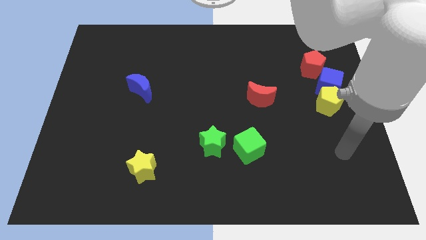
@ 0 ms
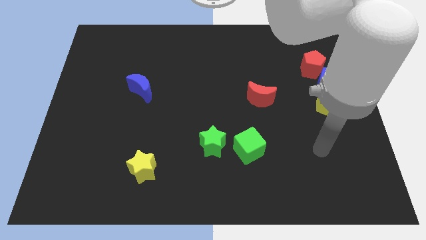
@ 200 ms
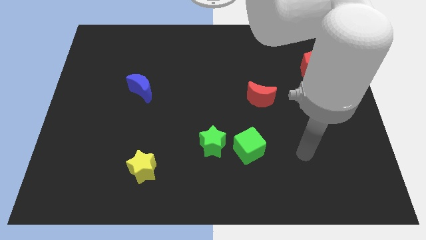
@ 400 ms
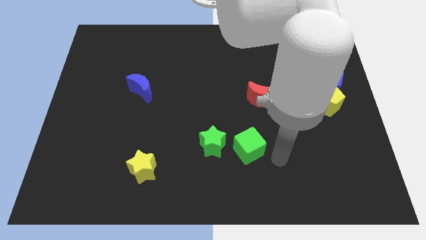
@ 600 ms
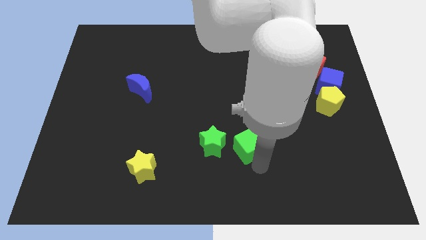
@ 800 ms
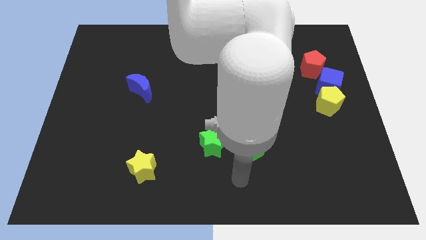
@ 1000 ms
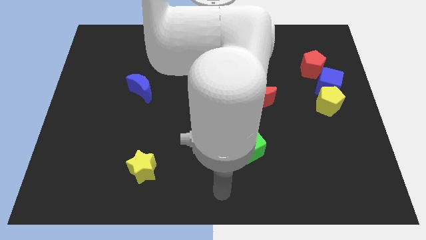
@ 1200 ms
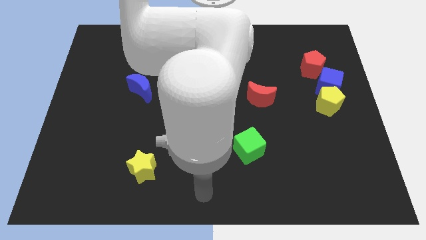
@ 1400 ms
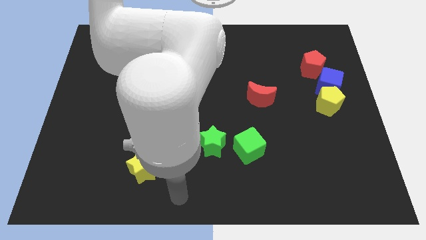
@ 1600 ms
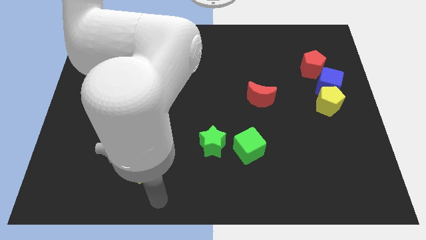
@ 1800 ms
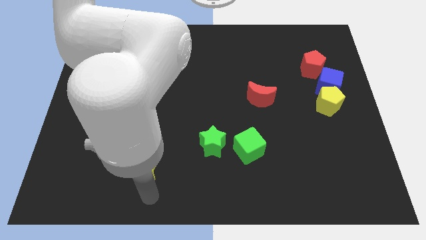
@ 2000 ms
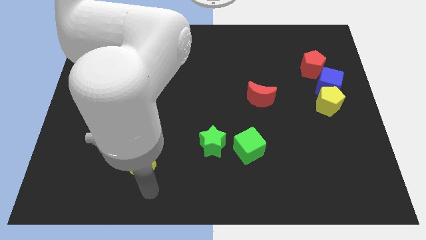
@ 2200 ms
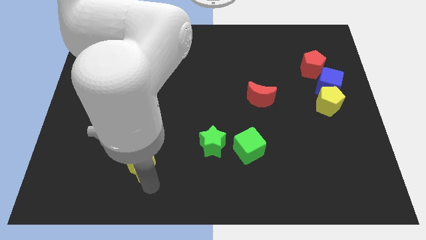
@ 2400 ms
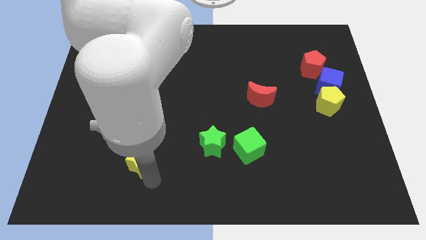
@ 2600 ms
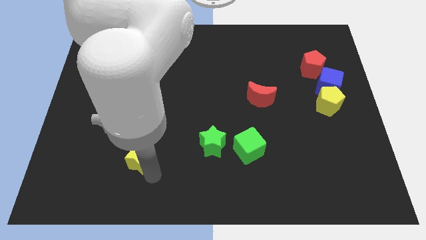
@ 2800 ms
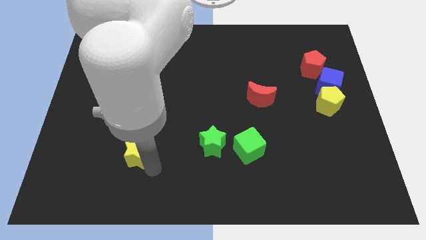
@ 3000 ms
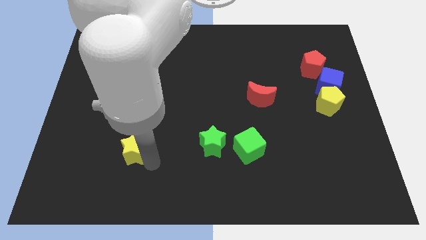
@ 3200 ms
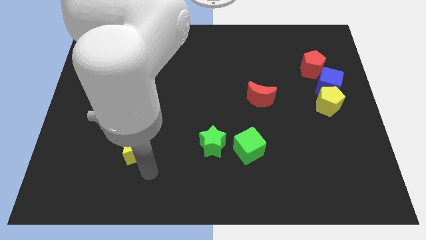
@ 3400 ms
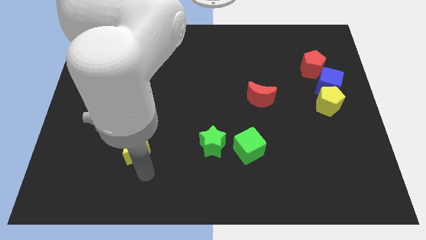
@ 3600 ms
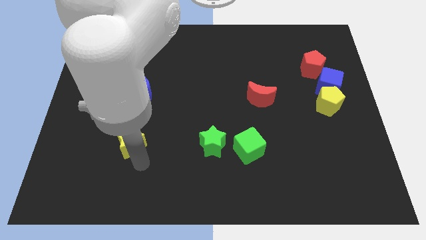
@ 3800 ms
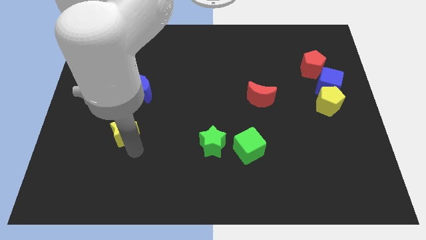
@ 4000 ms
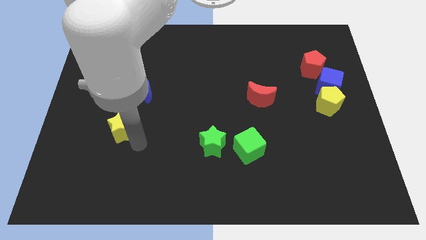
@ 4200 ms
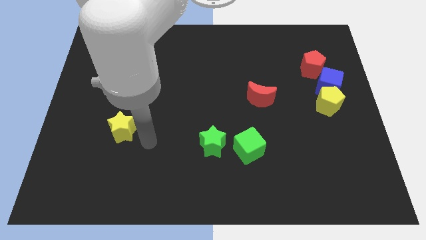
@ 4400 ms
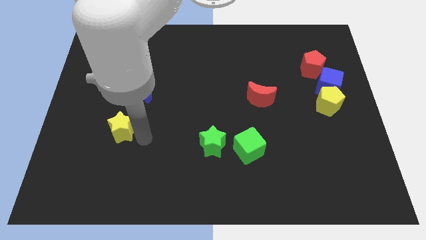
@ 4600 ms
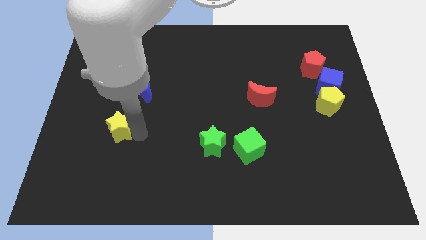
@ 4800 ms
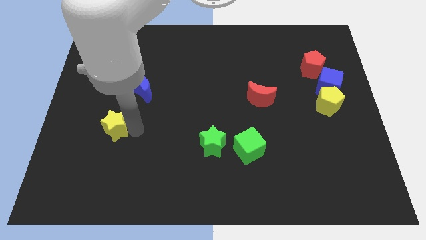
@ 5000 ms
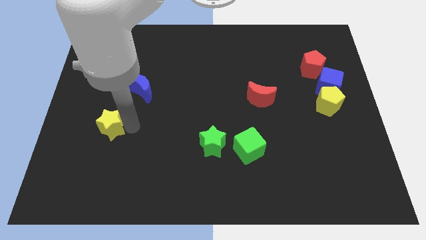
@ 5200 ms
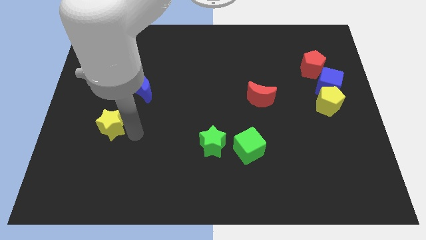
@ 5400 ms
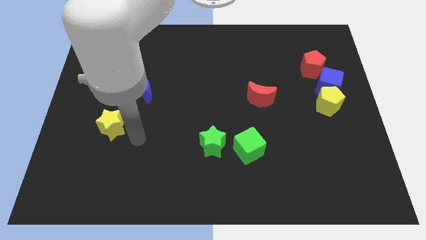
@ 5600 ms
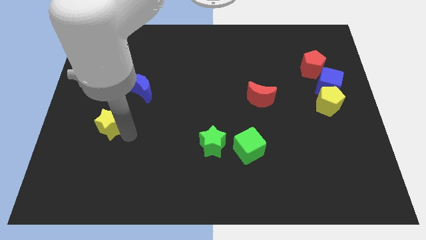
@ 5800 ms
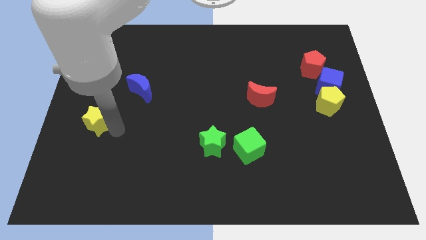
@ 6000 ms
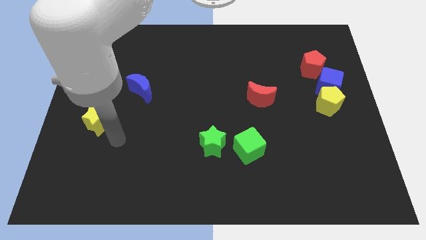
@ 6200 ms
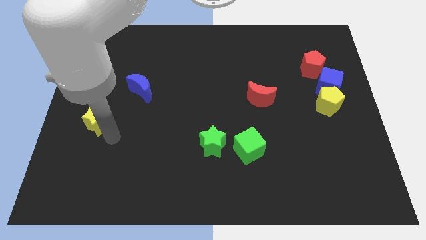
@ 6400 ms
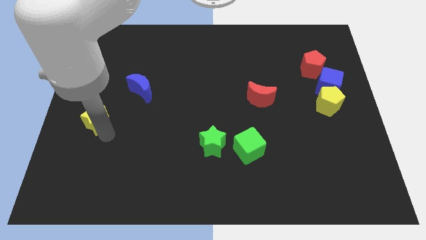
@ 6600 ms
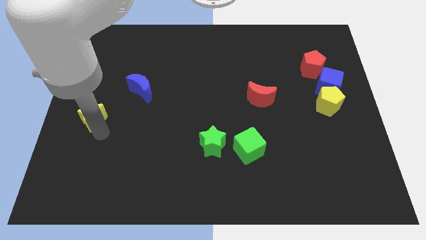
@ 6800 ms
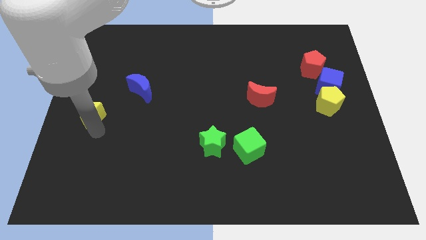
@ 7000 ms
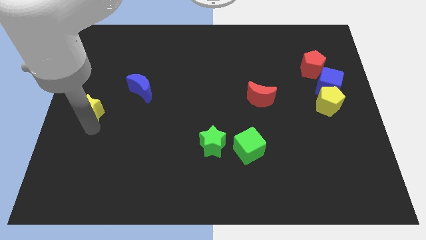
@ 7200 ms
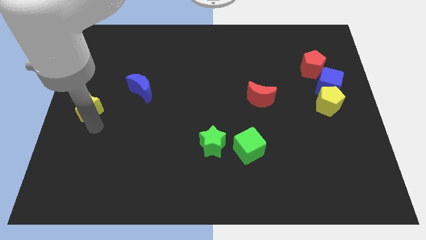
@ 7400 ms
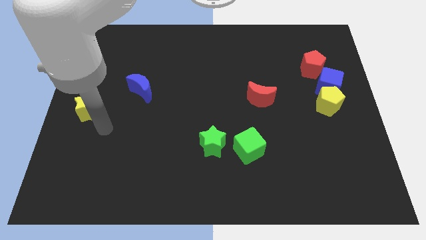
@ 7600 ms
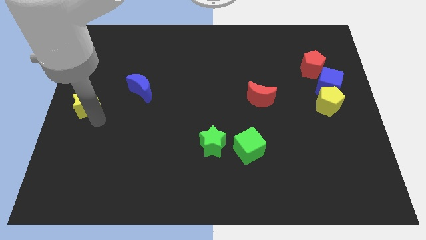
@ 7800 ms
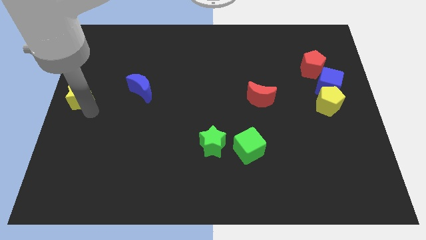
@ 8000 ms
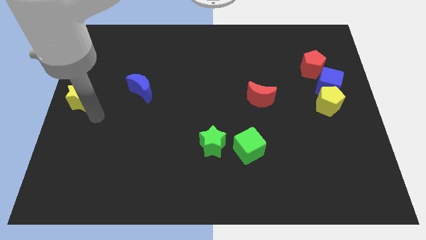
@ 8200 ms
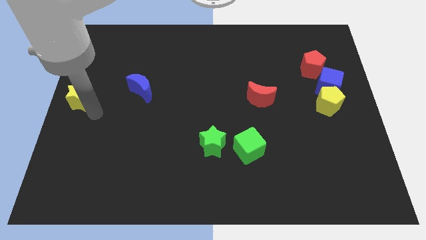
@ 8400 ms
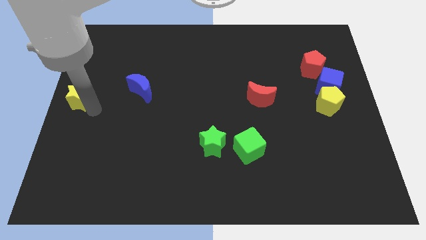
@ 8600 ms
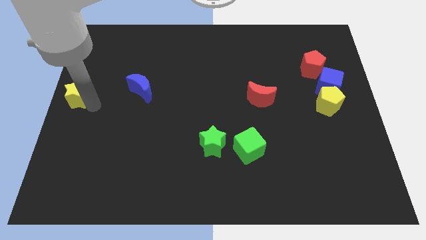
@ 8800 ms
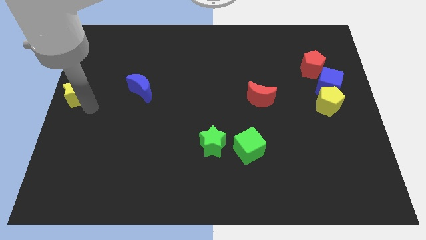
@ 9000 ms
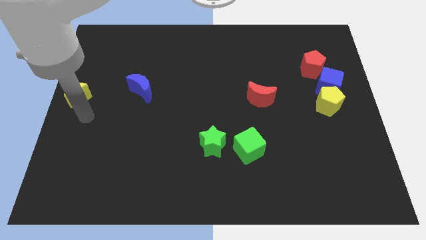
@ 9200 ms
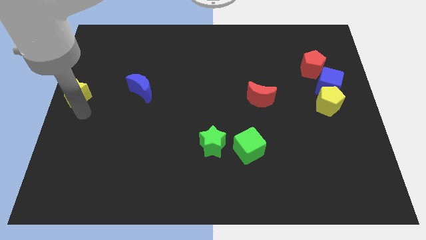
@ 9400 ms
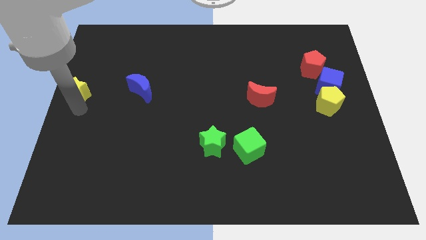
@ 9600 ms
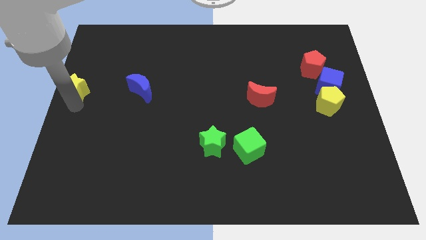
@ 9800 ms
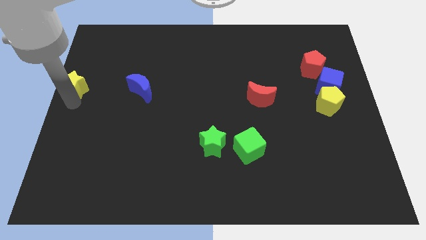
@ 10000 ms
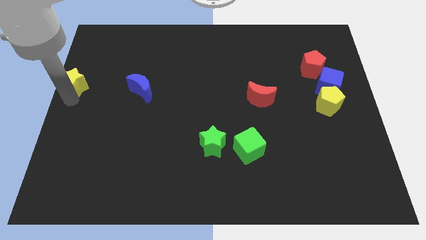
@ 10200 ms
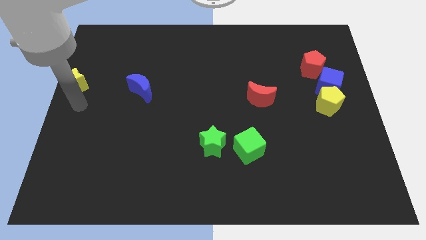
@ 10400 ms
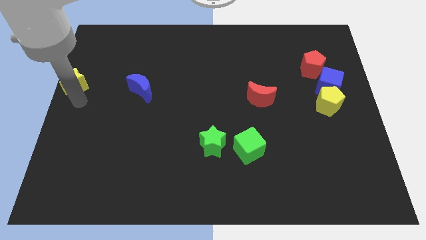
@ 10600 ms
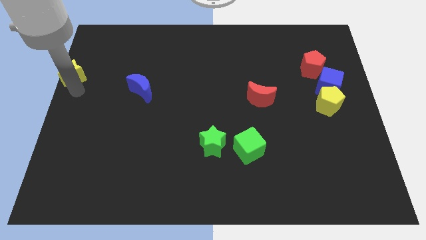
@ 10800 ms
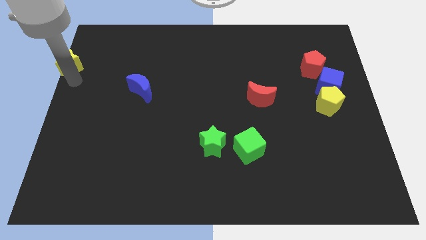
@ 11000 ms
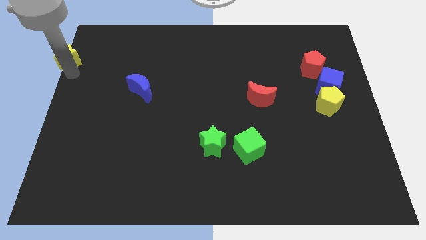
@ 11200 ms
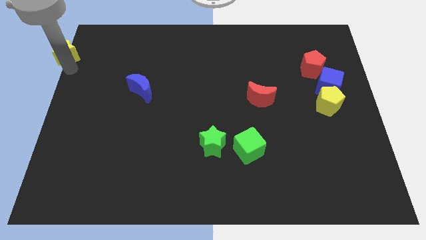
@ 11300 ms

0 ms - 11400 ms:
move the yellow star to the top left of the board

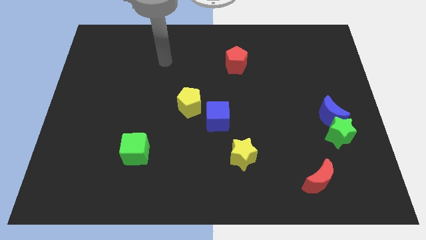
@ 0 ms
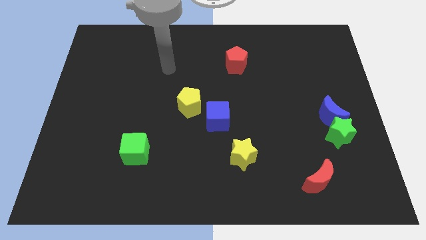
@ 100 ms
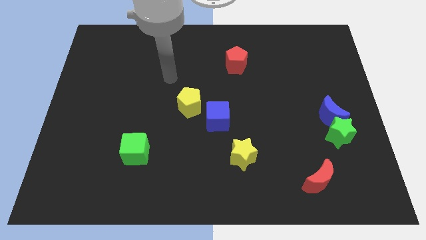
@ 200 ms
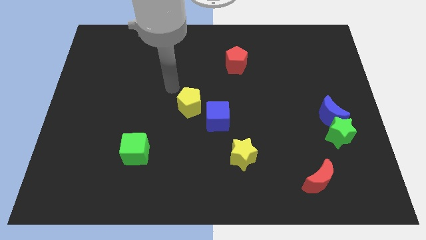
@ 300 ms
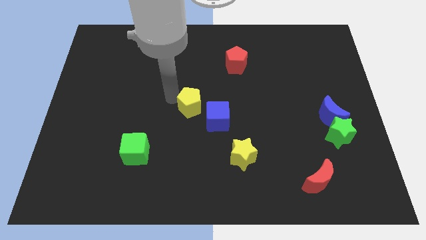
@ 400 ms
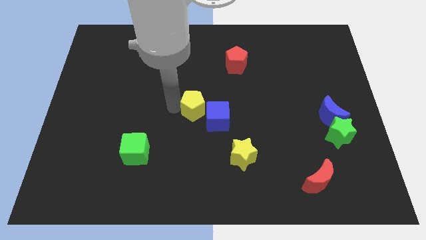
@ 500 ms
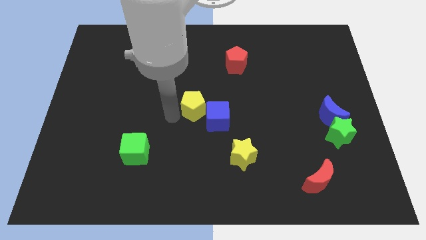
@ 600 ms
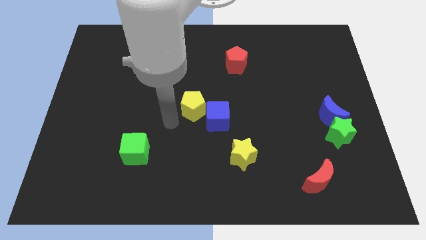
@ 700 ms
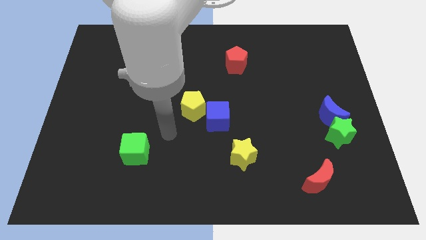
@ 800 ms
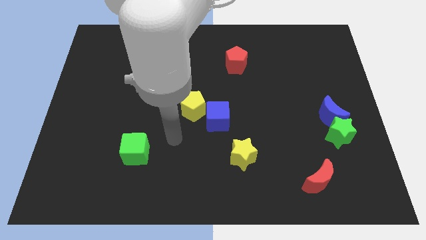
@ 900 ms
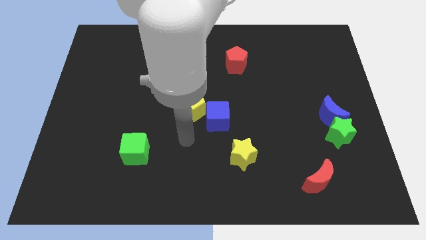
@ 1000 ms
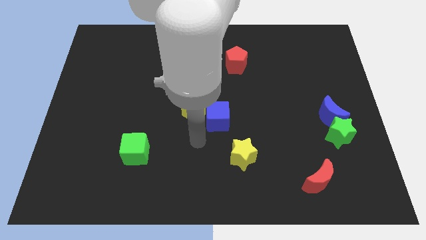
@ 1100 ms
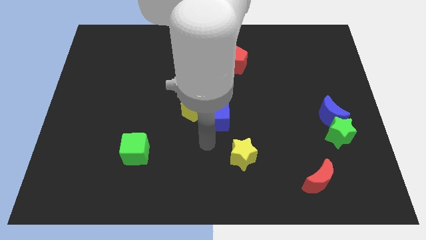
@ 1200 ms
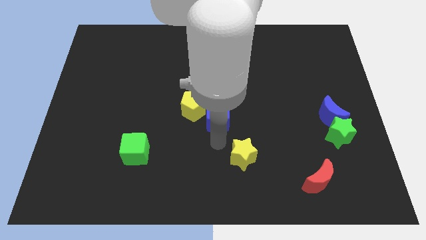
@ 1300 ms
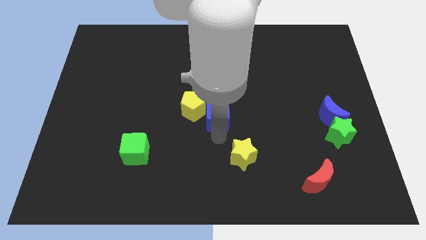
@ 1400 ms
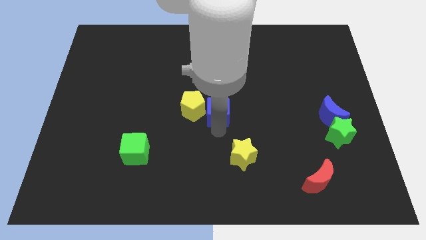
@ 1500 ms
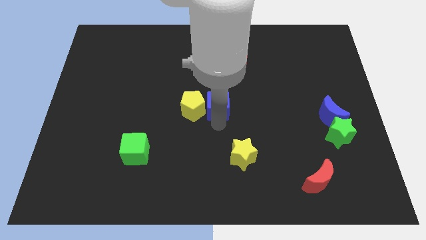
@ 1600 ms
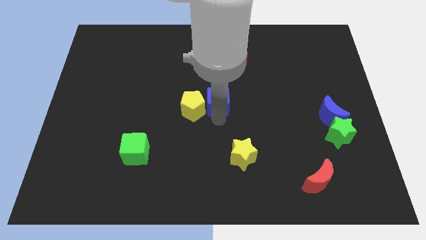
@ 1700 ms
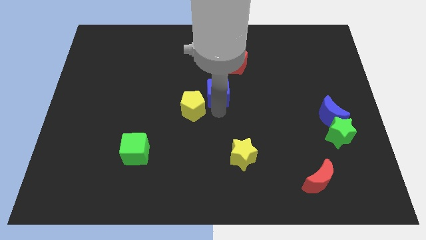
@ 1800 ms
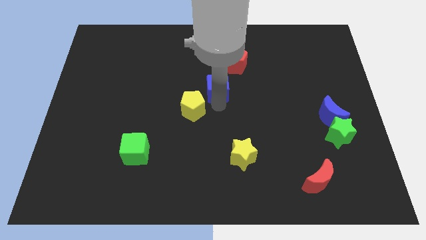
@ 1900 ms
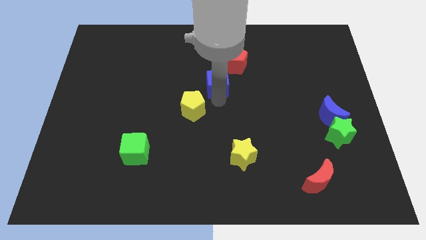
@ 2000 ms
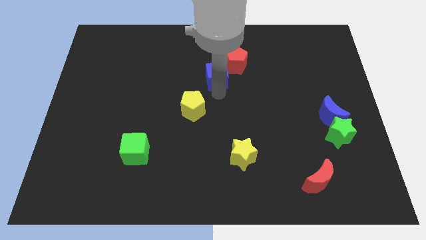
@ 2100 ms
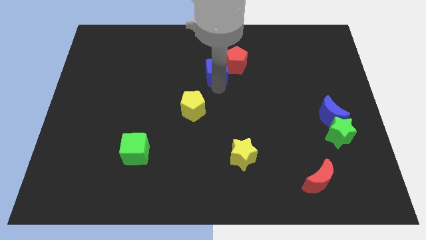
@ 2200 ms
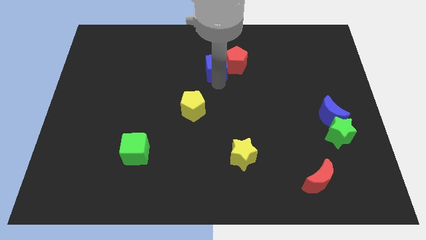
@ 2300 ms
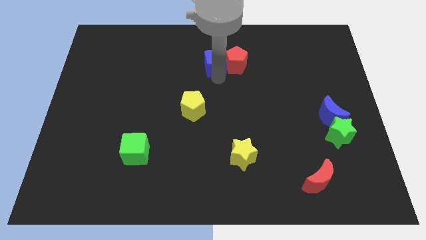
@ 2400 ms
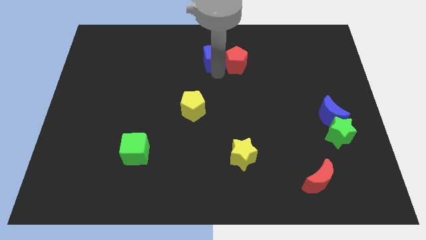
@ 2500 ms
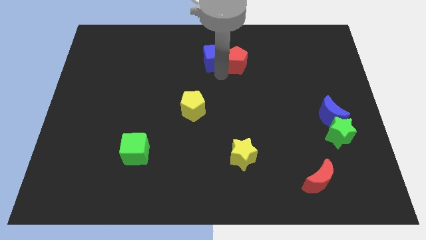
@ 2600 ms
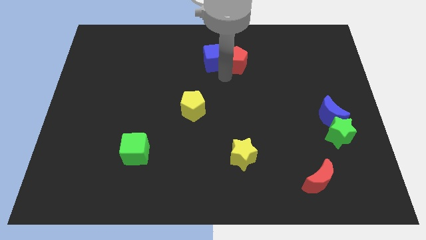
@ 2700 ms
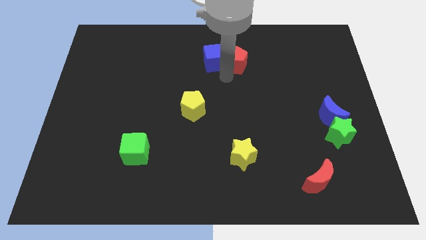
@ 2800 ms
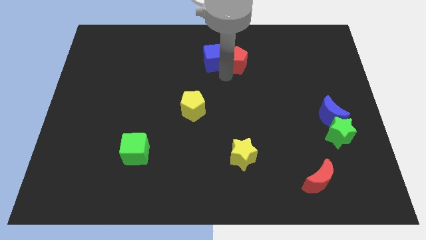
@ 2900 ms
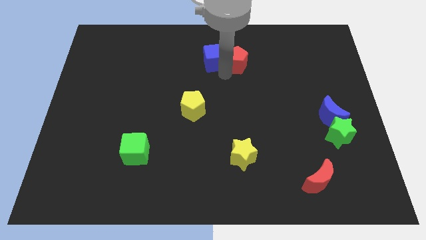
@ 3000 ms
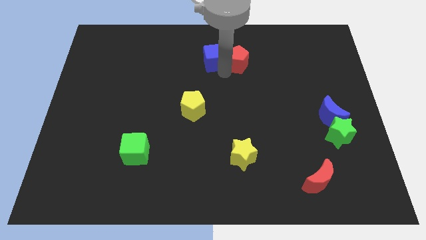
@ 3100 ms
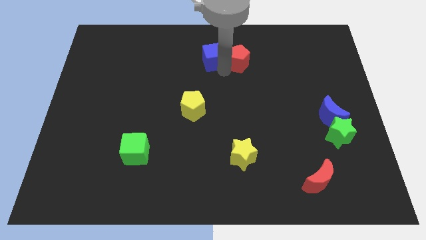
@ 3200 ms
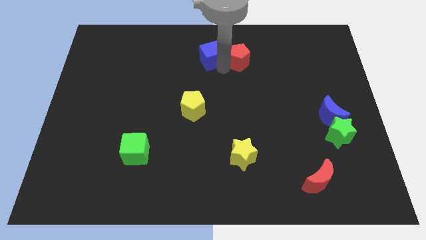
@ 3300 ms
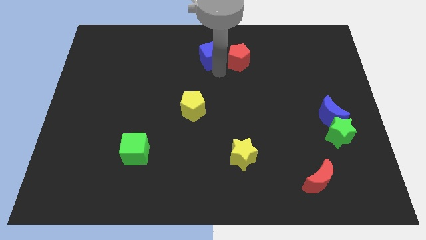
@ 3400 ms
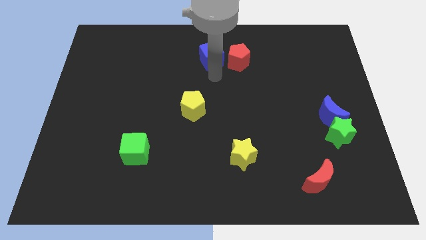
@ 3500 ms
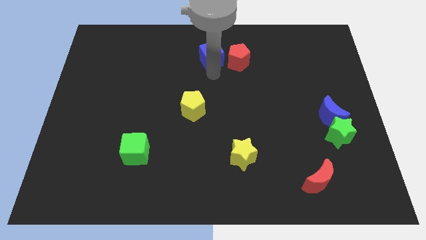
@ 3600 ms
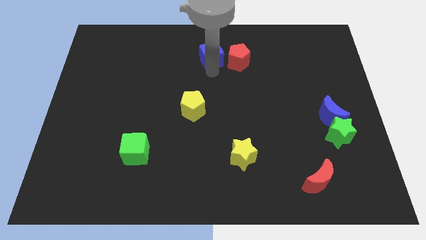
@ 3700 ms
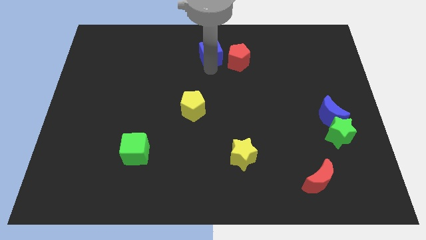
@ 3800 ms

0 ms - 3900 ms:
put the blue cube to the top
